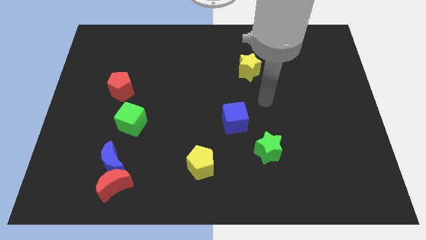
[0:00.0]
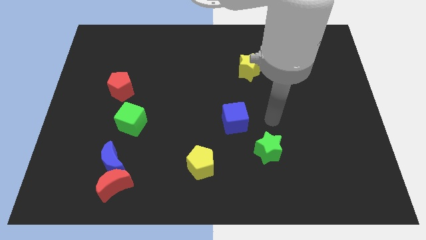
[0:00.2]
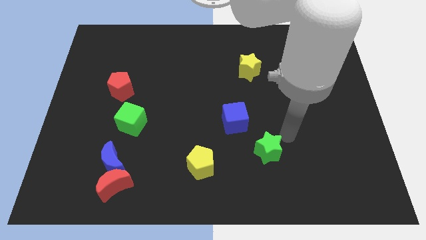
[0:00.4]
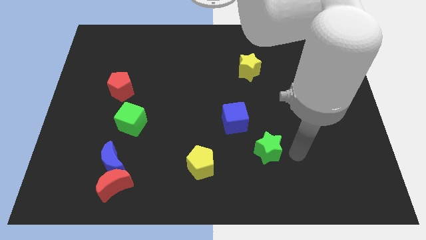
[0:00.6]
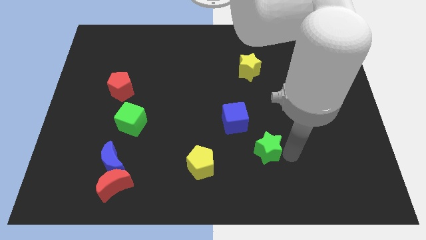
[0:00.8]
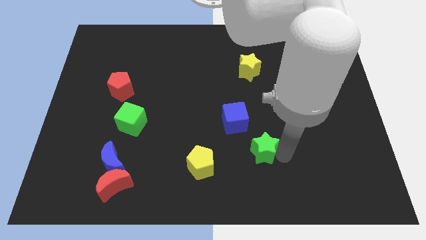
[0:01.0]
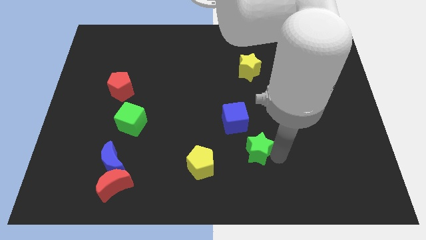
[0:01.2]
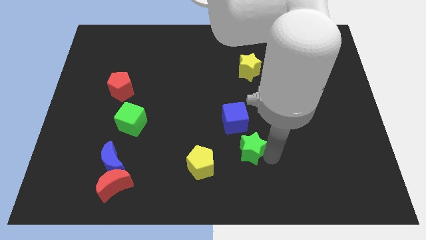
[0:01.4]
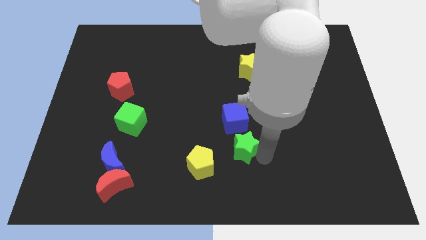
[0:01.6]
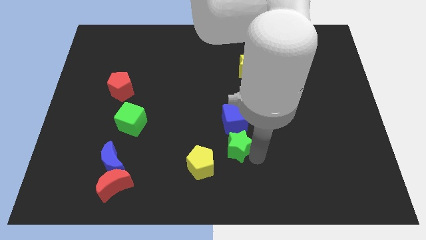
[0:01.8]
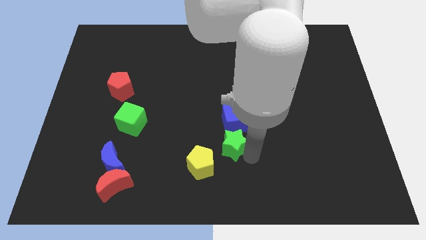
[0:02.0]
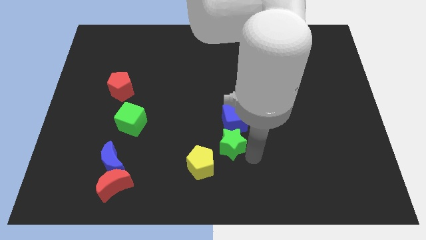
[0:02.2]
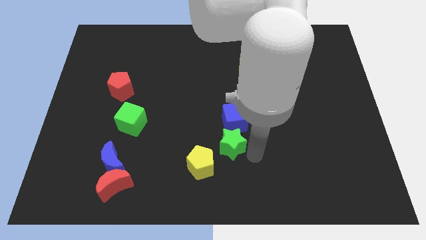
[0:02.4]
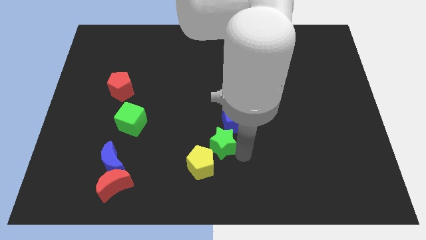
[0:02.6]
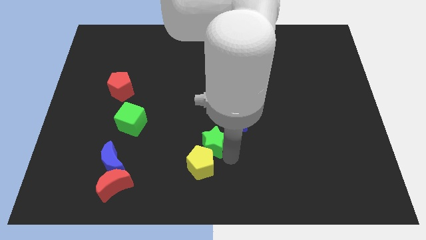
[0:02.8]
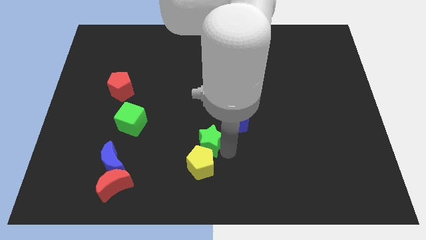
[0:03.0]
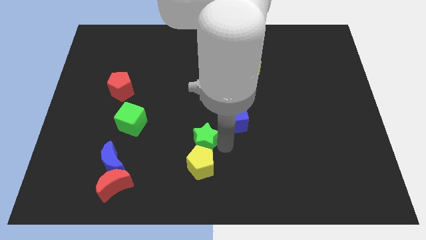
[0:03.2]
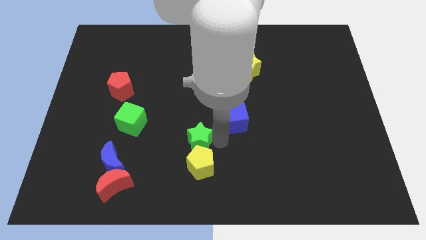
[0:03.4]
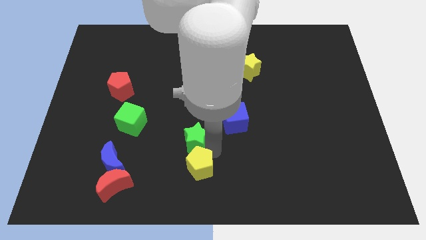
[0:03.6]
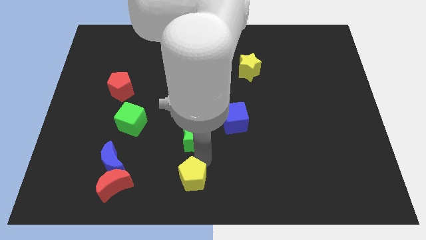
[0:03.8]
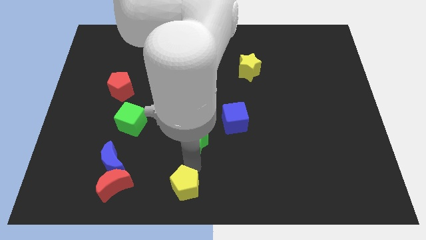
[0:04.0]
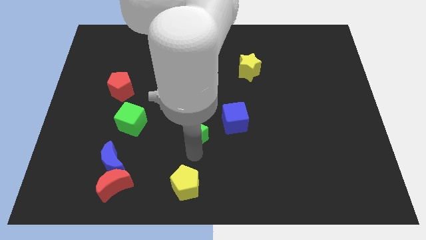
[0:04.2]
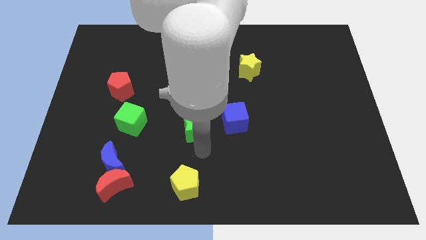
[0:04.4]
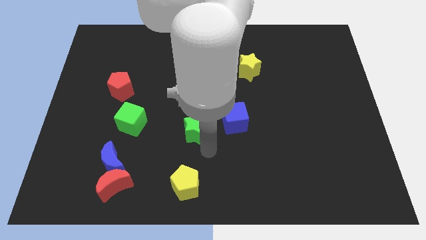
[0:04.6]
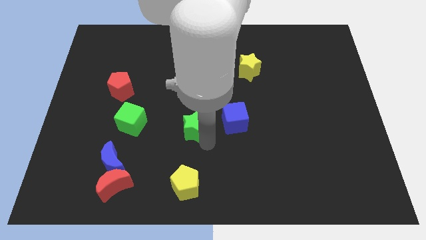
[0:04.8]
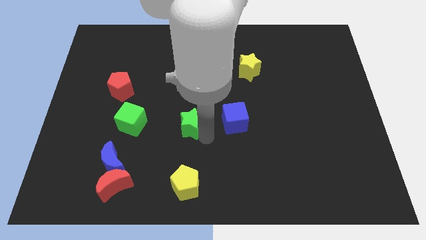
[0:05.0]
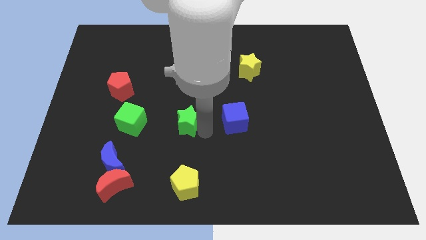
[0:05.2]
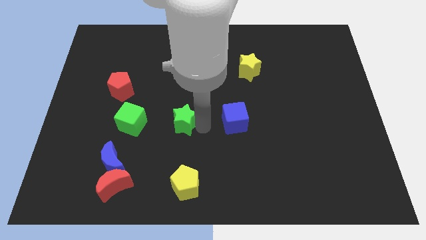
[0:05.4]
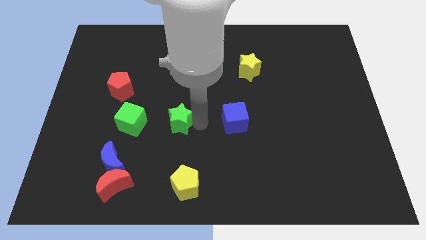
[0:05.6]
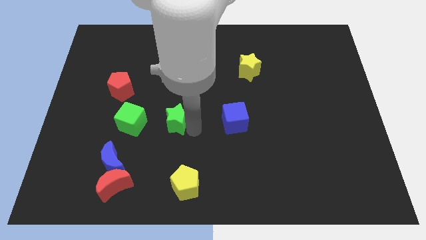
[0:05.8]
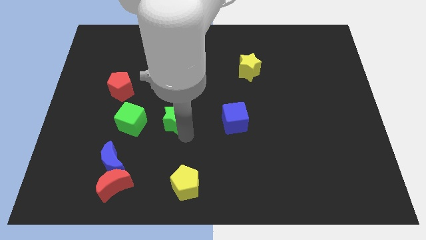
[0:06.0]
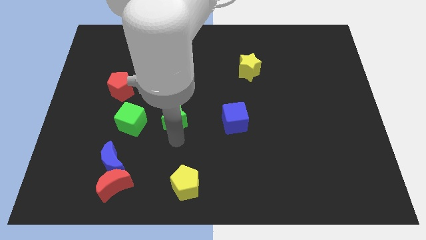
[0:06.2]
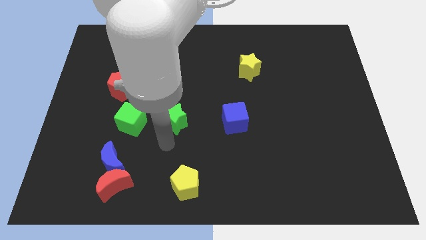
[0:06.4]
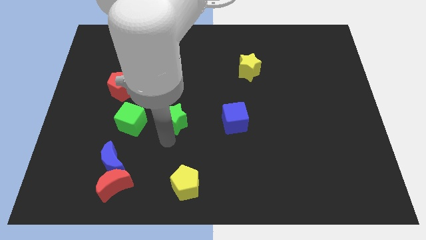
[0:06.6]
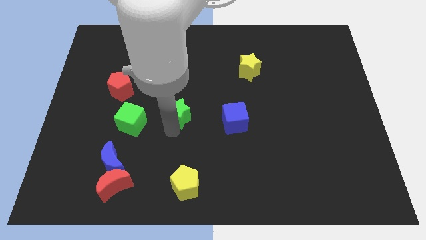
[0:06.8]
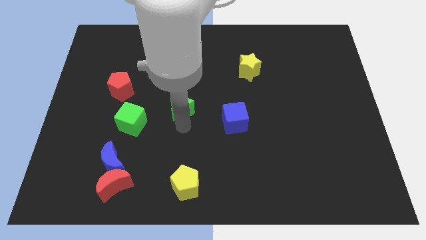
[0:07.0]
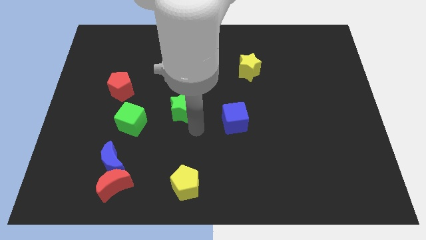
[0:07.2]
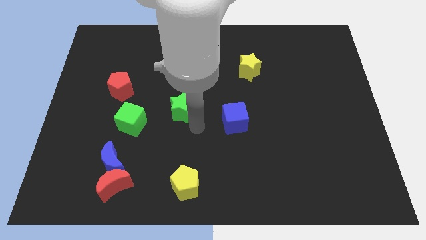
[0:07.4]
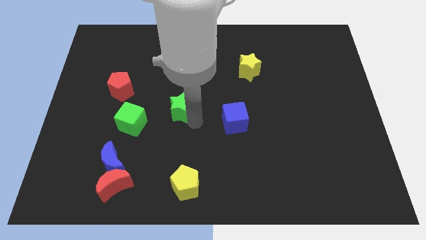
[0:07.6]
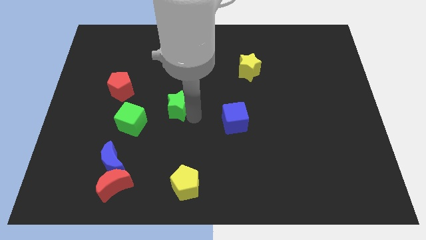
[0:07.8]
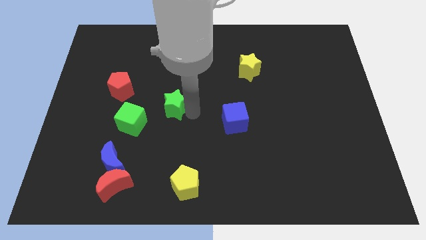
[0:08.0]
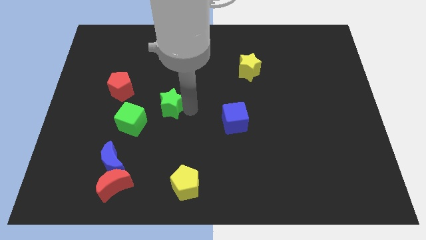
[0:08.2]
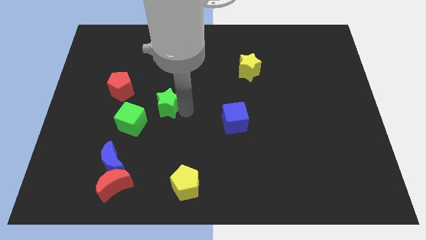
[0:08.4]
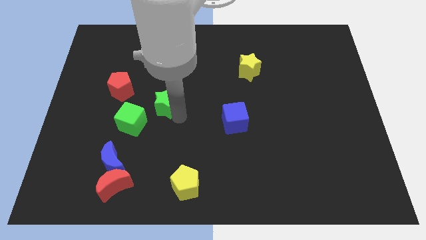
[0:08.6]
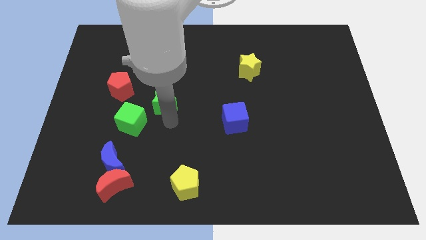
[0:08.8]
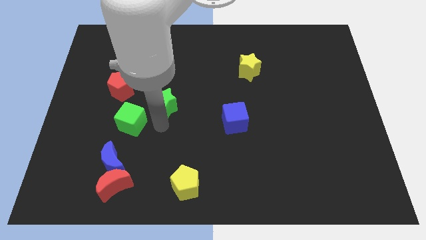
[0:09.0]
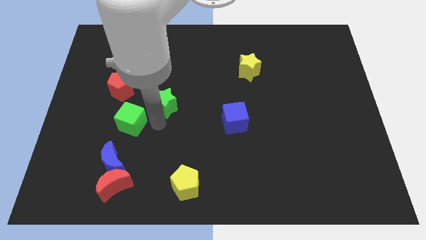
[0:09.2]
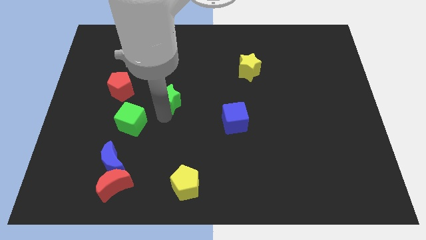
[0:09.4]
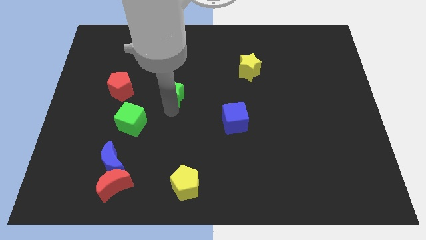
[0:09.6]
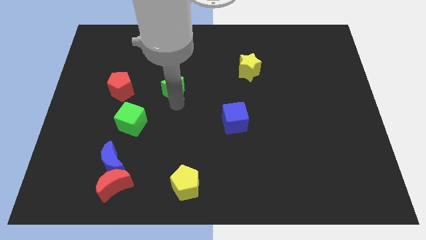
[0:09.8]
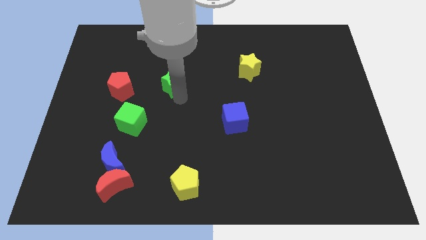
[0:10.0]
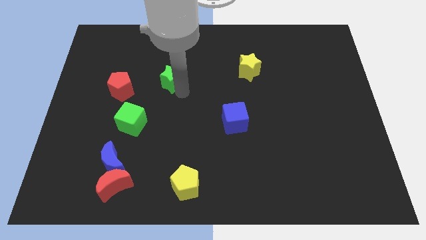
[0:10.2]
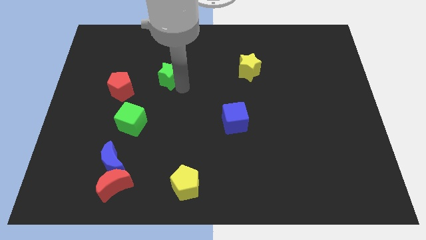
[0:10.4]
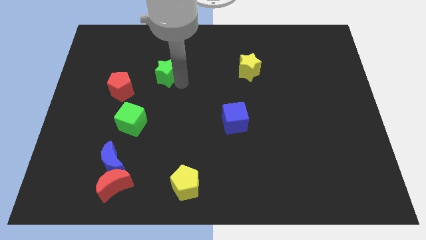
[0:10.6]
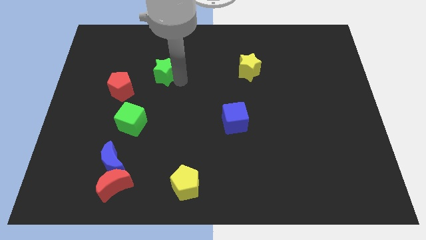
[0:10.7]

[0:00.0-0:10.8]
slide the green star to the top right side of the red pentagon

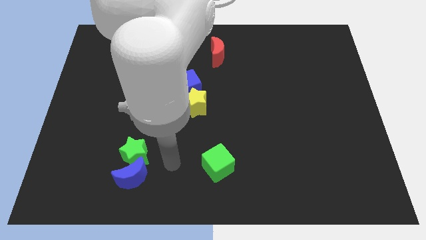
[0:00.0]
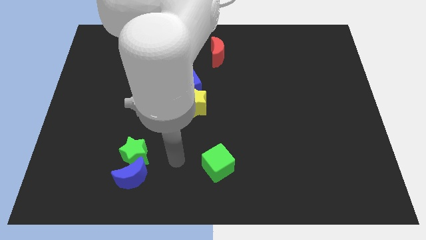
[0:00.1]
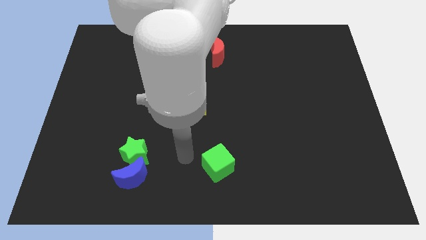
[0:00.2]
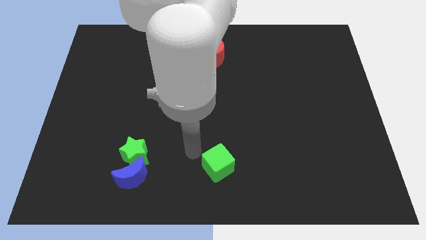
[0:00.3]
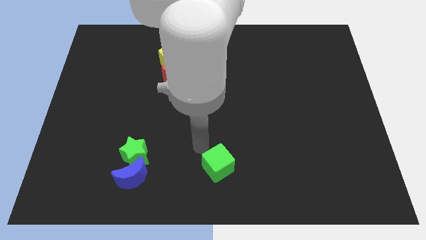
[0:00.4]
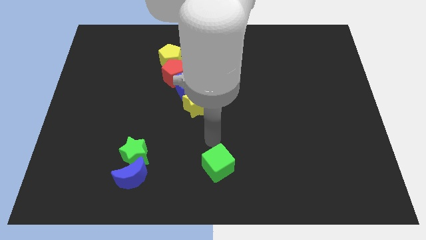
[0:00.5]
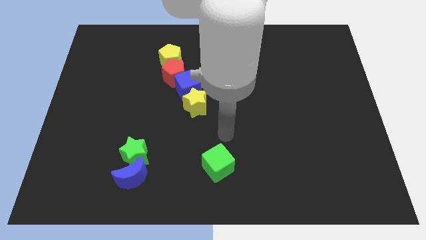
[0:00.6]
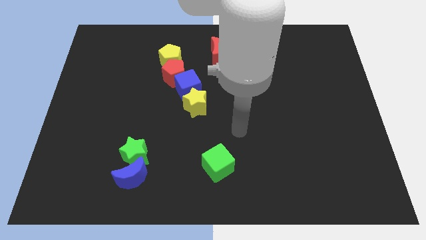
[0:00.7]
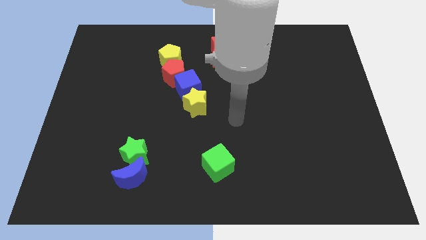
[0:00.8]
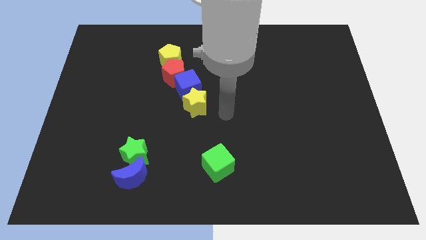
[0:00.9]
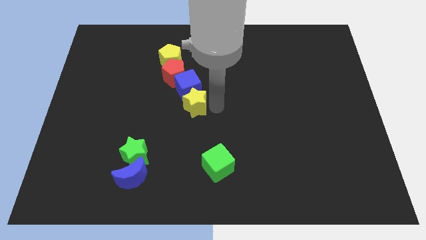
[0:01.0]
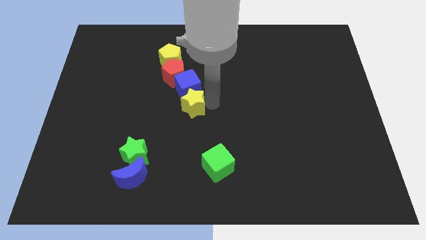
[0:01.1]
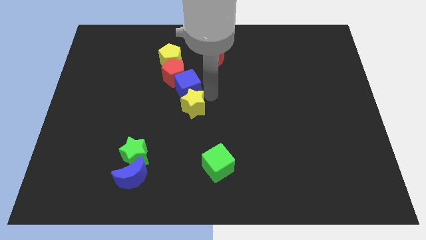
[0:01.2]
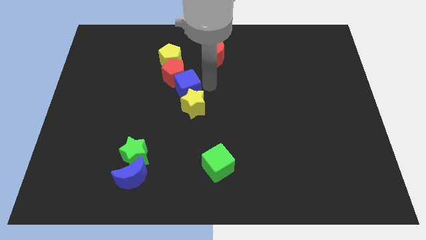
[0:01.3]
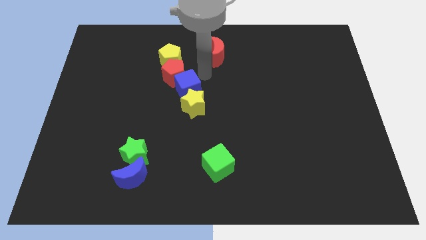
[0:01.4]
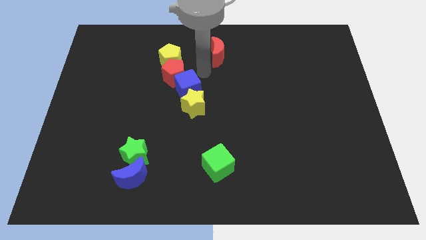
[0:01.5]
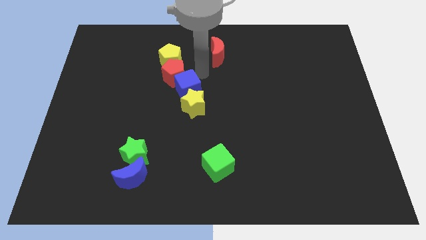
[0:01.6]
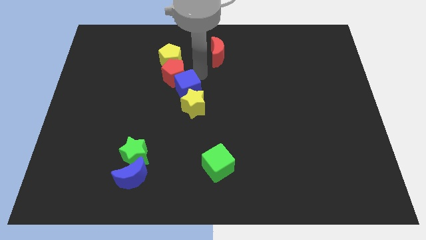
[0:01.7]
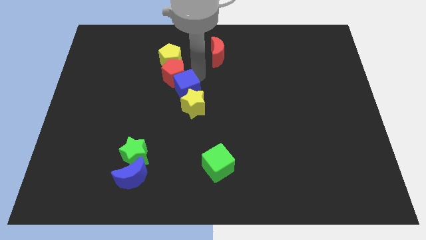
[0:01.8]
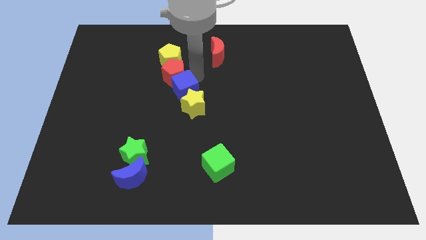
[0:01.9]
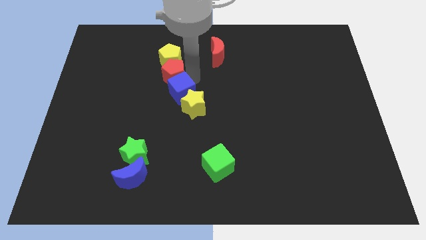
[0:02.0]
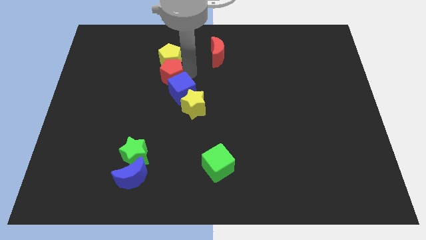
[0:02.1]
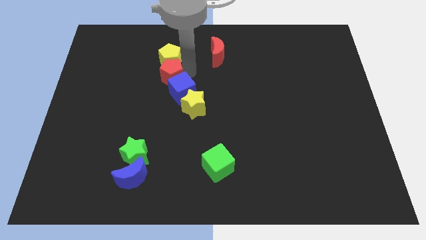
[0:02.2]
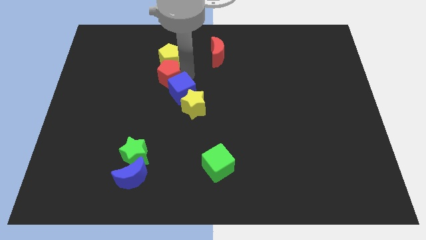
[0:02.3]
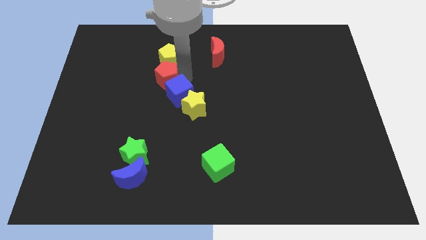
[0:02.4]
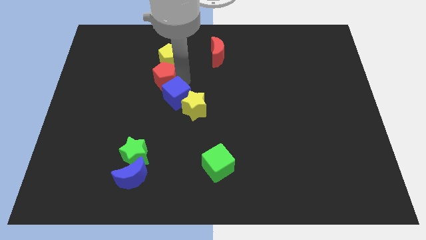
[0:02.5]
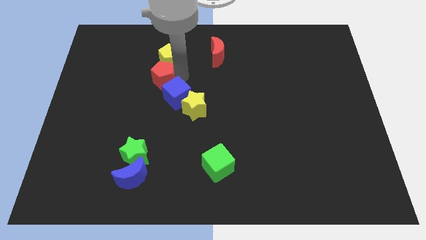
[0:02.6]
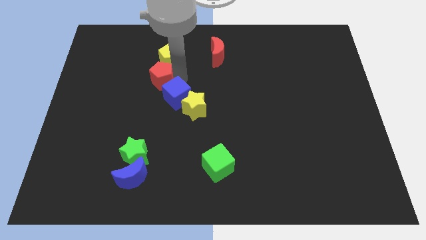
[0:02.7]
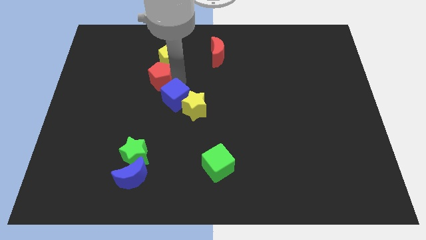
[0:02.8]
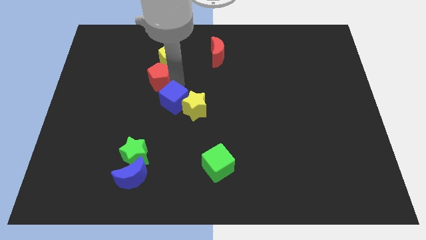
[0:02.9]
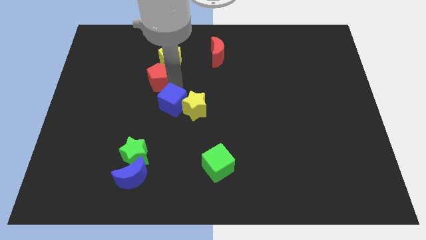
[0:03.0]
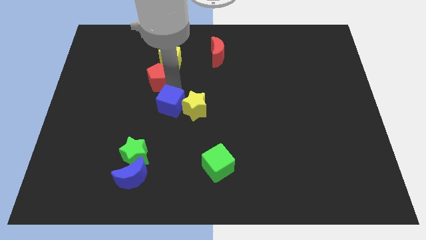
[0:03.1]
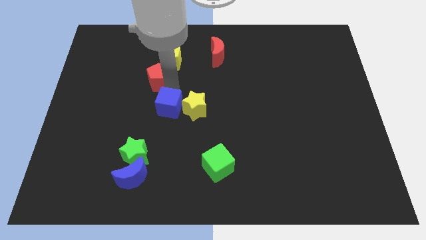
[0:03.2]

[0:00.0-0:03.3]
slide the blue cube diagonally down and to the left of the yellow star
